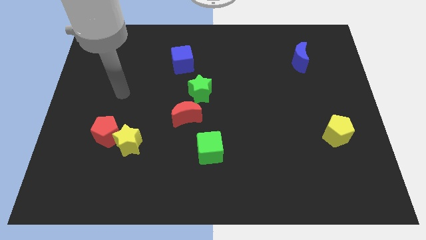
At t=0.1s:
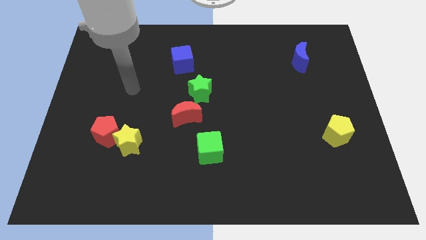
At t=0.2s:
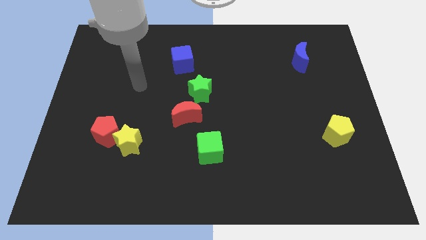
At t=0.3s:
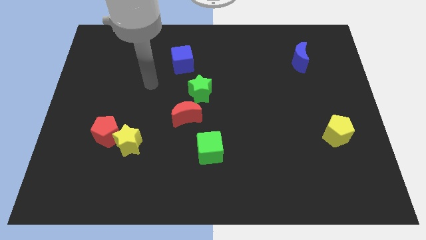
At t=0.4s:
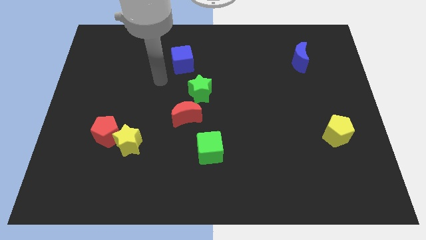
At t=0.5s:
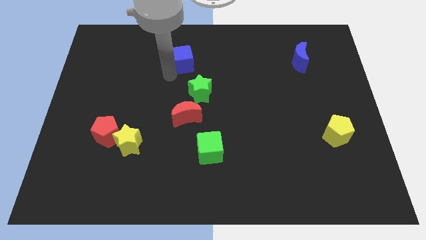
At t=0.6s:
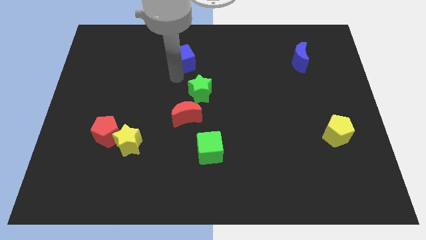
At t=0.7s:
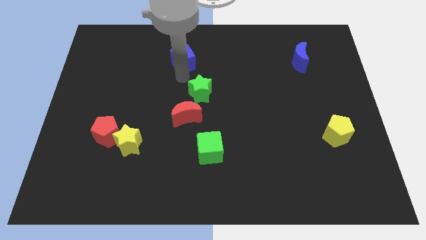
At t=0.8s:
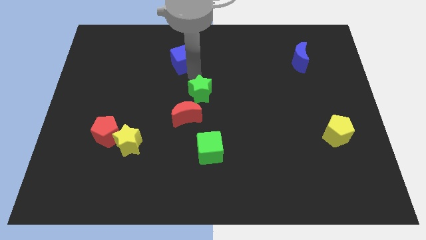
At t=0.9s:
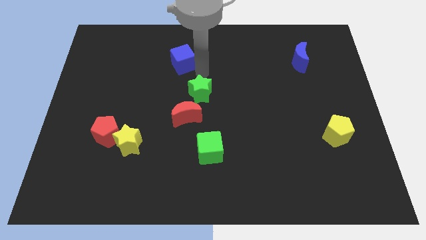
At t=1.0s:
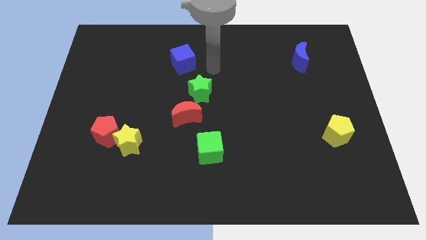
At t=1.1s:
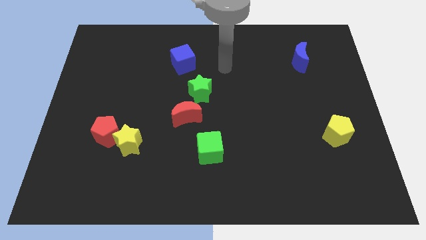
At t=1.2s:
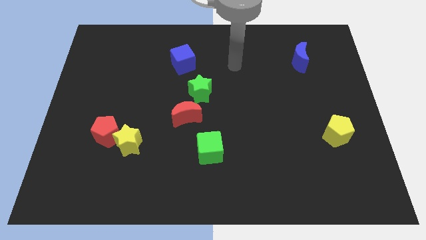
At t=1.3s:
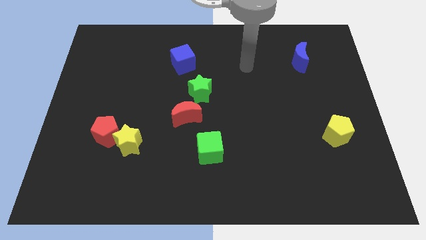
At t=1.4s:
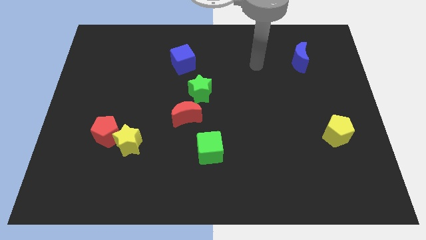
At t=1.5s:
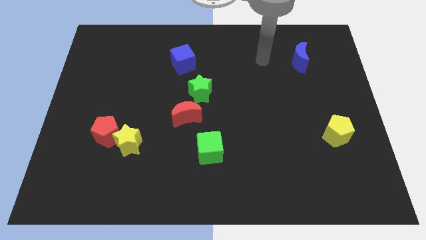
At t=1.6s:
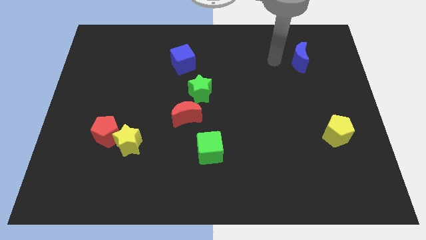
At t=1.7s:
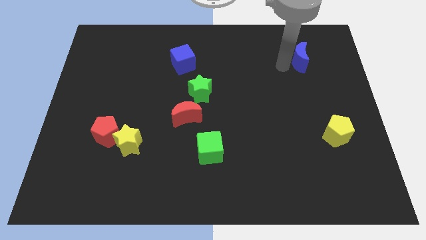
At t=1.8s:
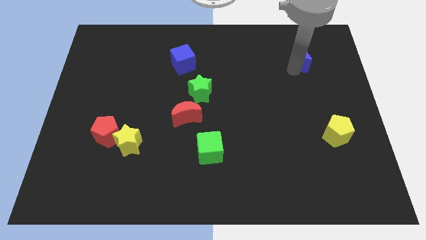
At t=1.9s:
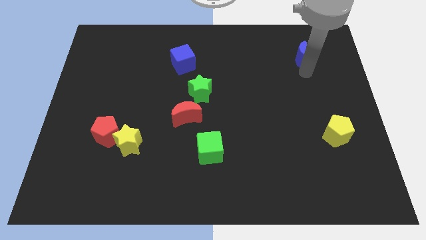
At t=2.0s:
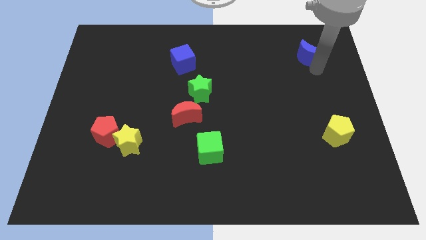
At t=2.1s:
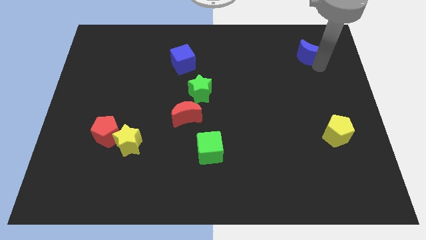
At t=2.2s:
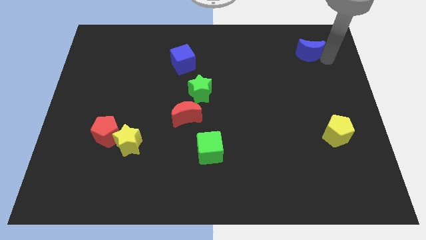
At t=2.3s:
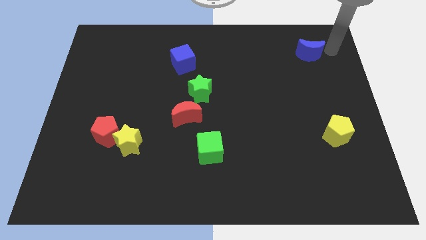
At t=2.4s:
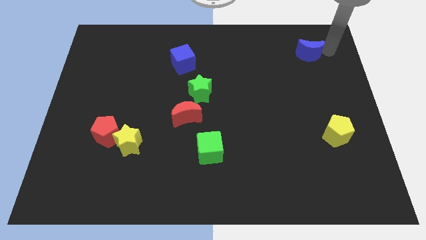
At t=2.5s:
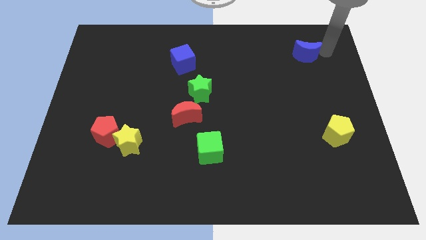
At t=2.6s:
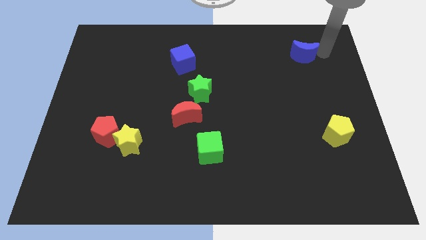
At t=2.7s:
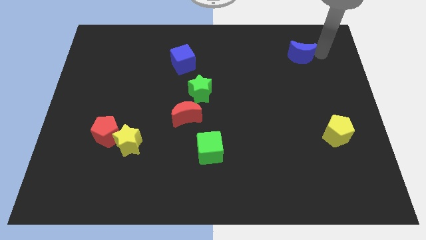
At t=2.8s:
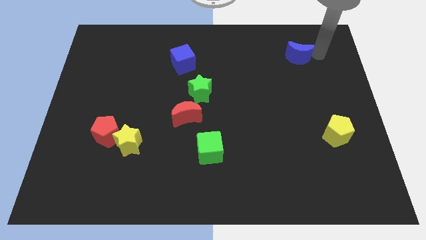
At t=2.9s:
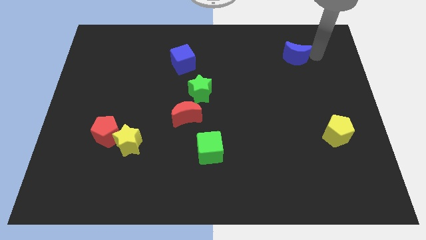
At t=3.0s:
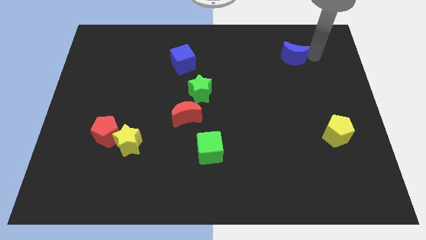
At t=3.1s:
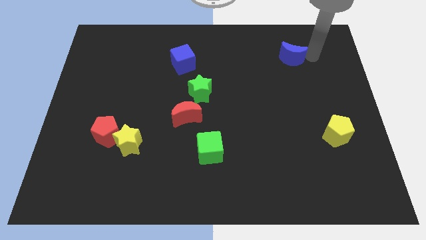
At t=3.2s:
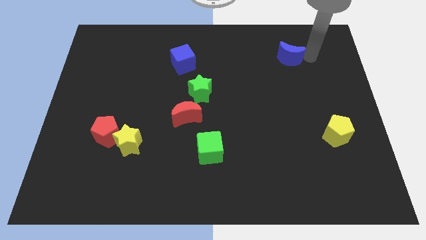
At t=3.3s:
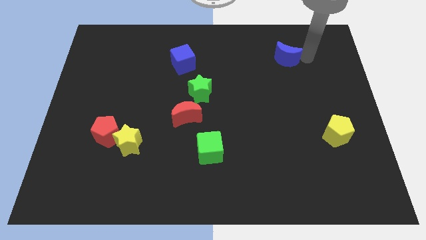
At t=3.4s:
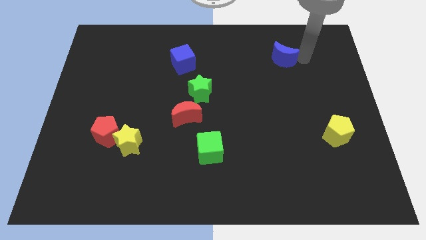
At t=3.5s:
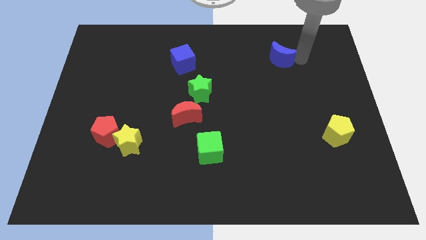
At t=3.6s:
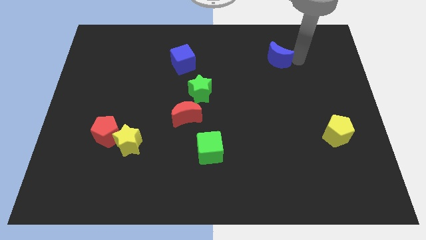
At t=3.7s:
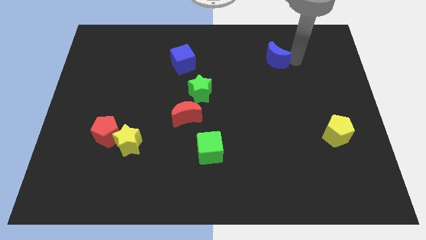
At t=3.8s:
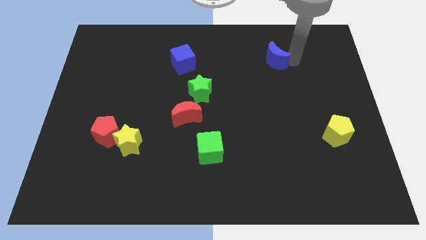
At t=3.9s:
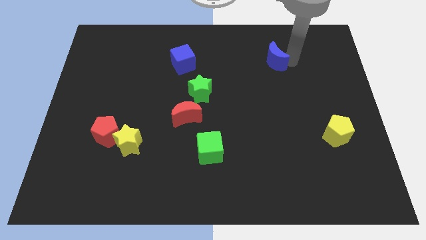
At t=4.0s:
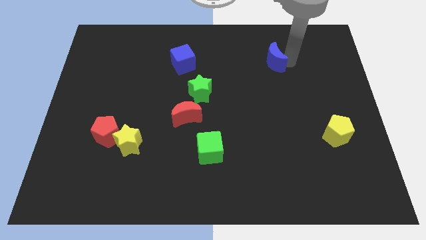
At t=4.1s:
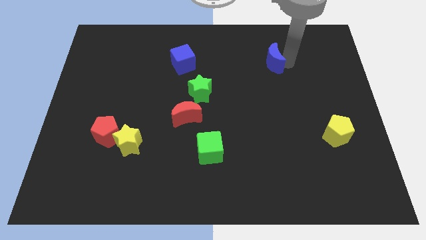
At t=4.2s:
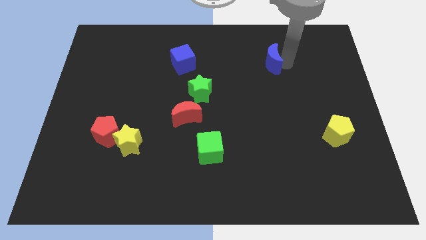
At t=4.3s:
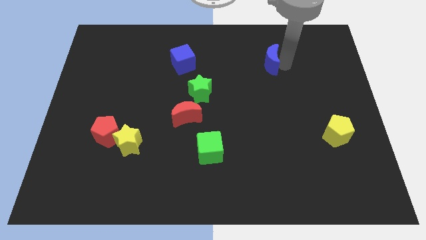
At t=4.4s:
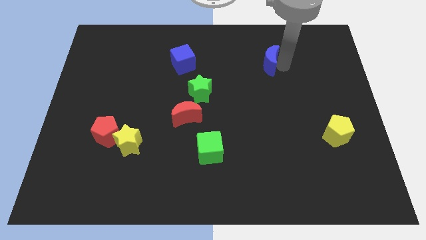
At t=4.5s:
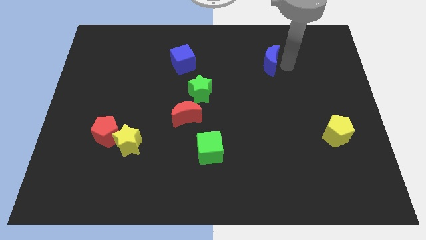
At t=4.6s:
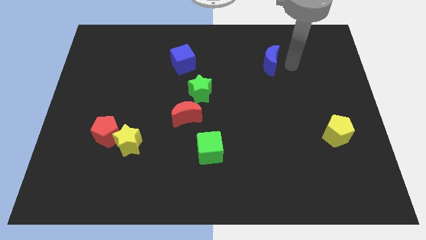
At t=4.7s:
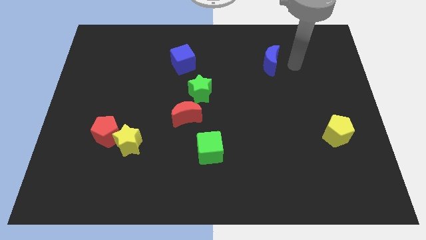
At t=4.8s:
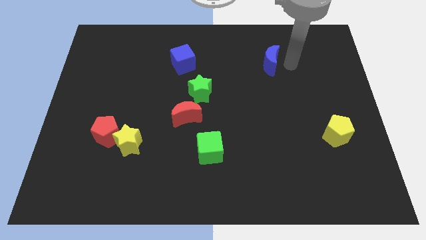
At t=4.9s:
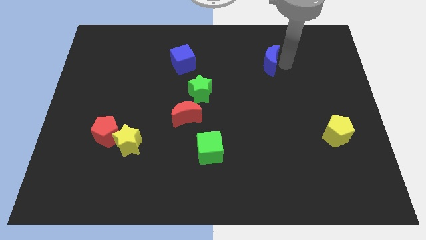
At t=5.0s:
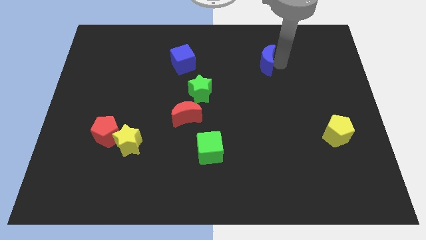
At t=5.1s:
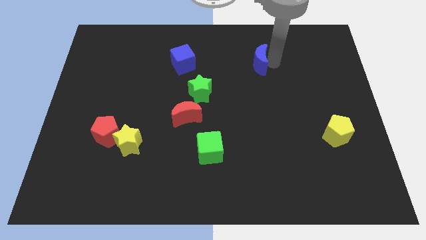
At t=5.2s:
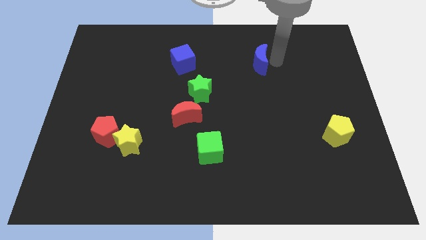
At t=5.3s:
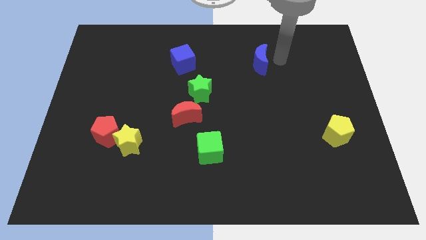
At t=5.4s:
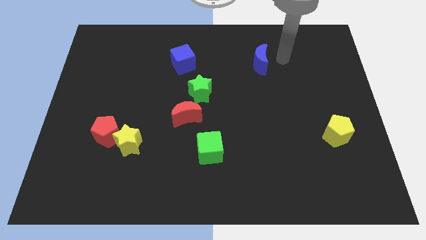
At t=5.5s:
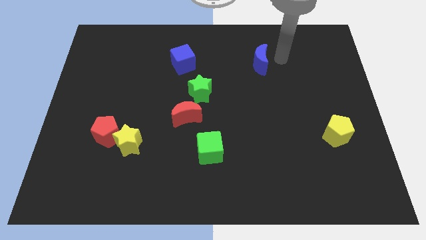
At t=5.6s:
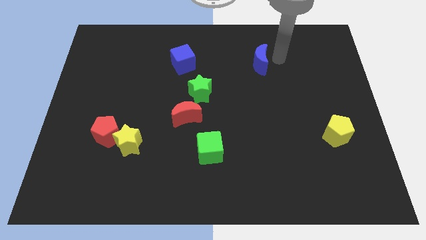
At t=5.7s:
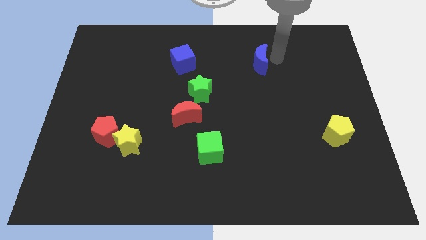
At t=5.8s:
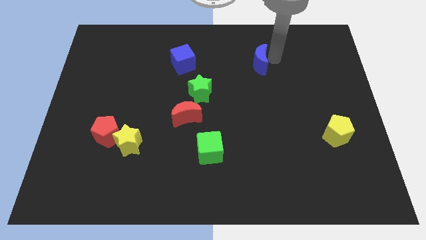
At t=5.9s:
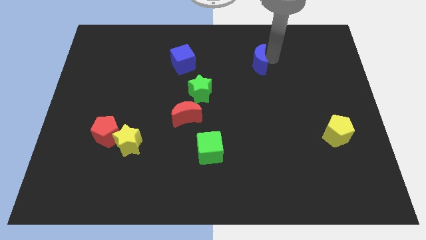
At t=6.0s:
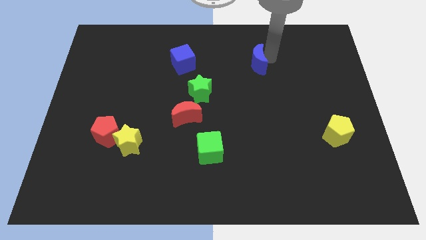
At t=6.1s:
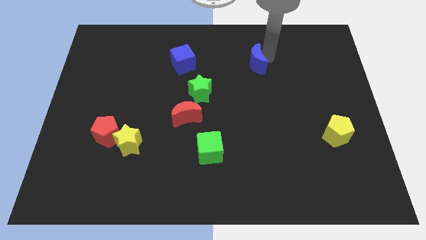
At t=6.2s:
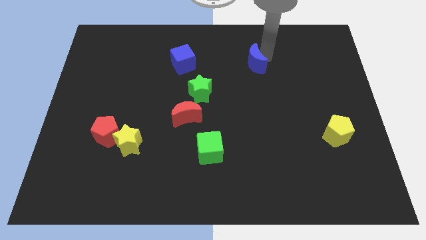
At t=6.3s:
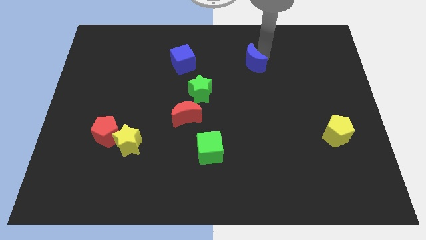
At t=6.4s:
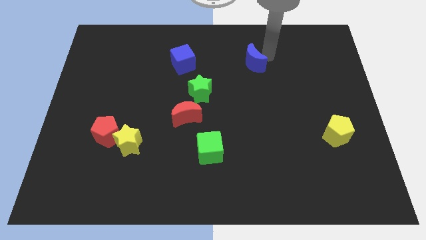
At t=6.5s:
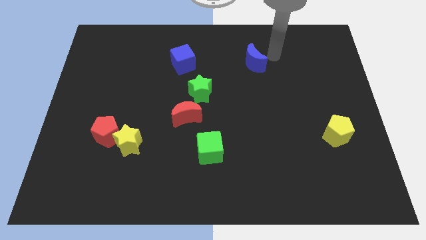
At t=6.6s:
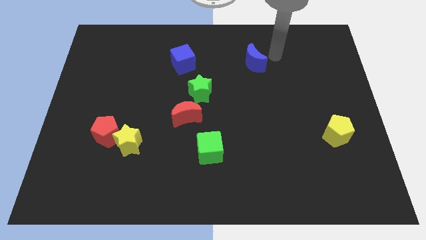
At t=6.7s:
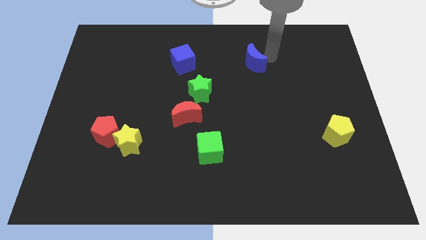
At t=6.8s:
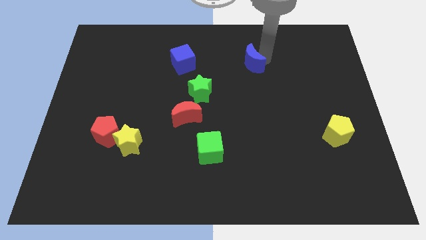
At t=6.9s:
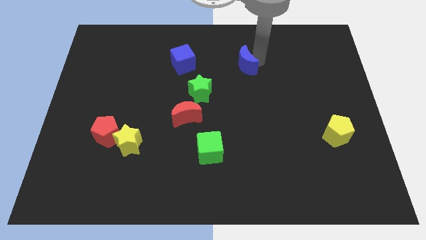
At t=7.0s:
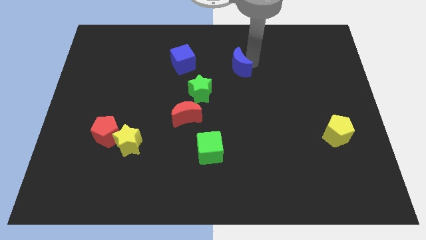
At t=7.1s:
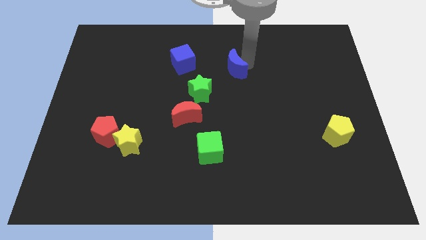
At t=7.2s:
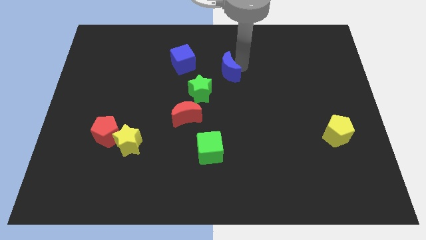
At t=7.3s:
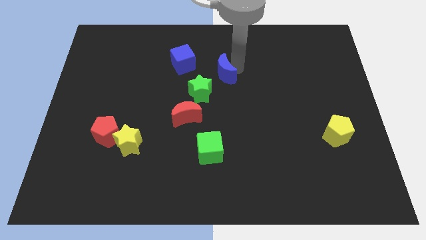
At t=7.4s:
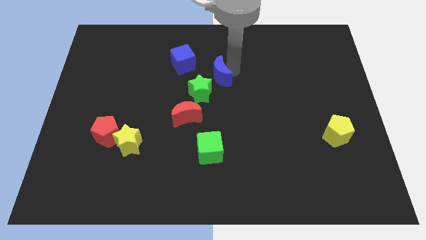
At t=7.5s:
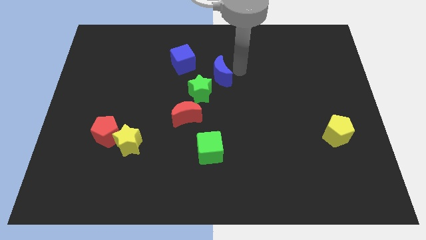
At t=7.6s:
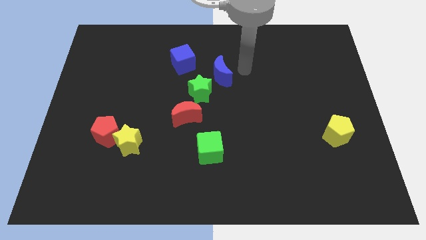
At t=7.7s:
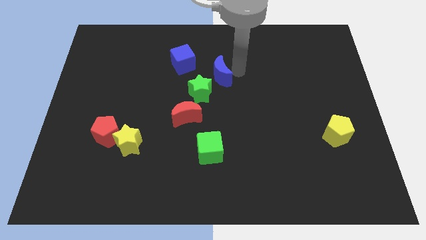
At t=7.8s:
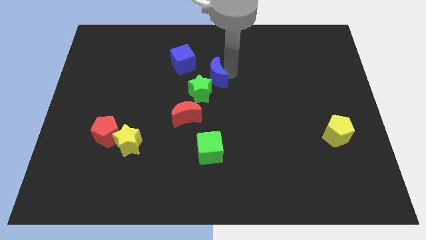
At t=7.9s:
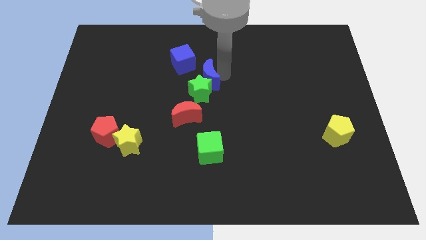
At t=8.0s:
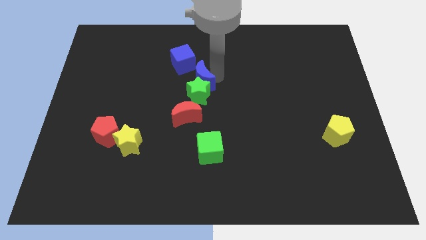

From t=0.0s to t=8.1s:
push the blue moon to the top side of the red moon
